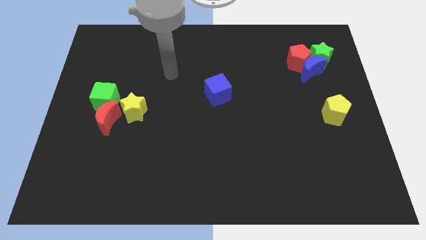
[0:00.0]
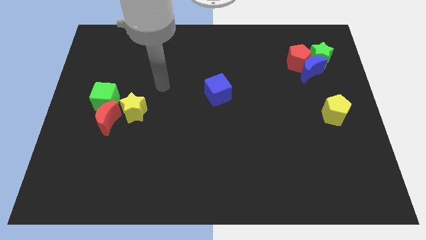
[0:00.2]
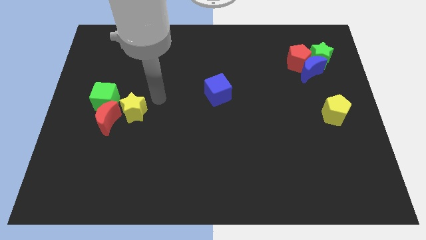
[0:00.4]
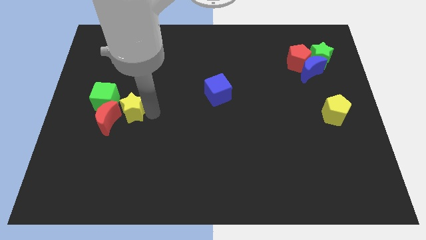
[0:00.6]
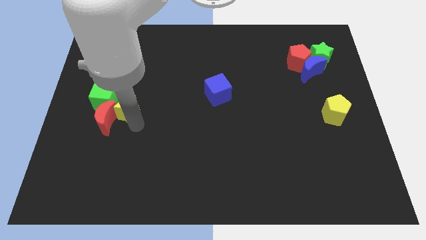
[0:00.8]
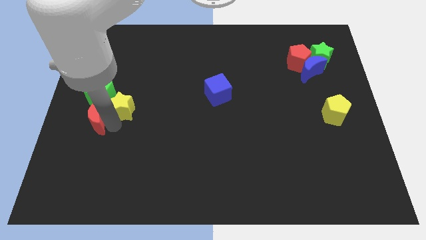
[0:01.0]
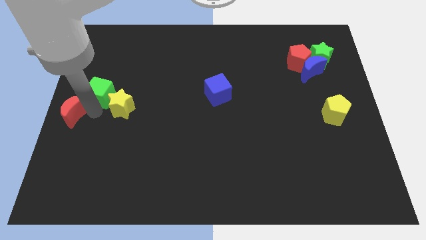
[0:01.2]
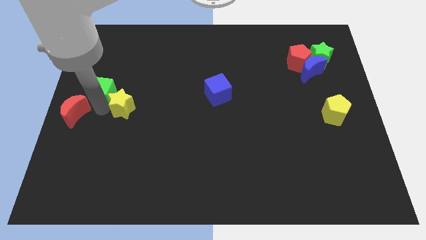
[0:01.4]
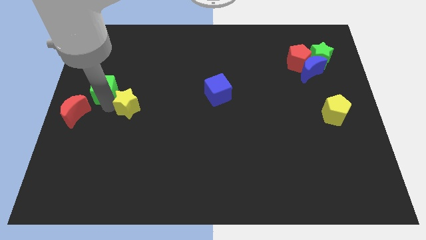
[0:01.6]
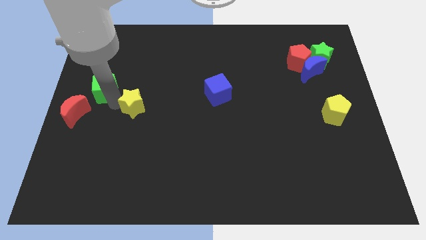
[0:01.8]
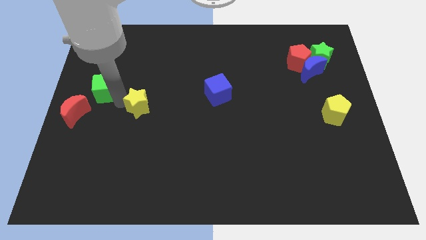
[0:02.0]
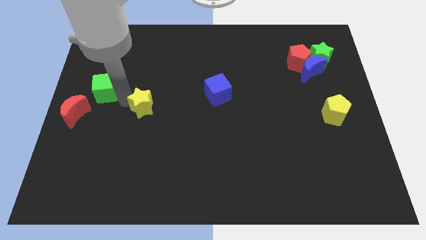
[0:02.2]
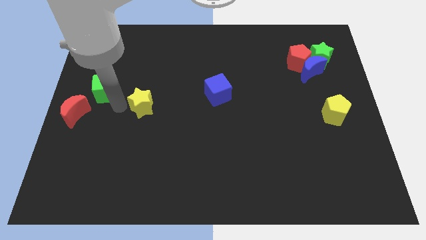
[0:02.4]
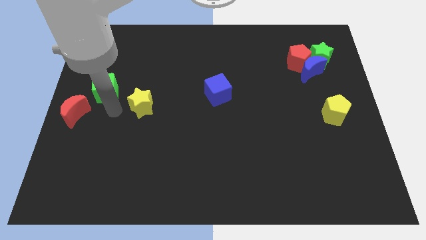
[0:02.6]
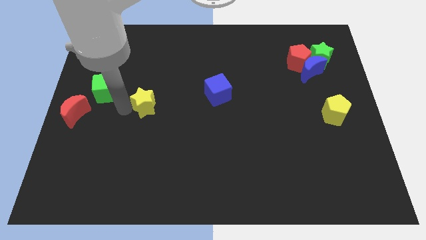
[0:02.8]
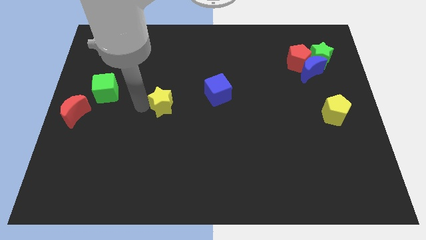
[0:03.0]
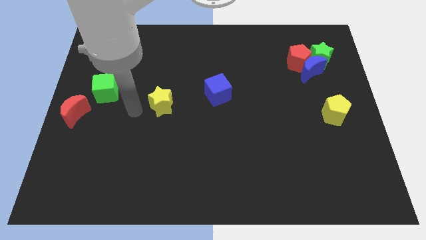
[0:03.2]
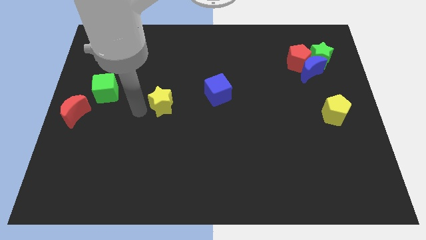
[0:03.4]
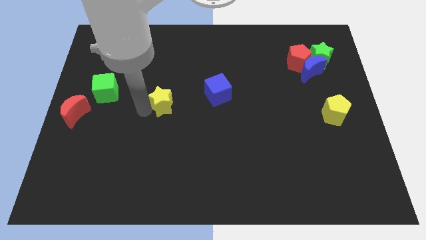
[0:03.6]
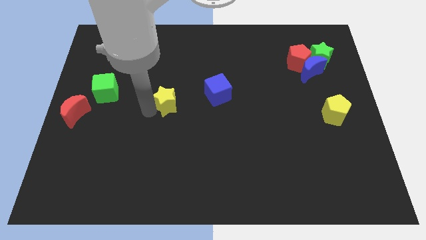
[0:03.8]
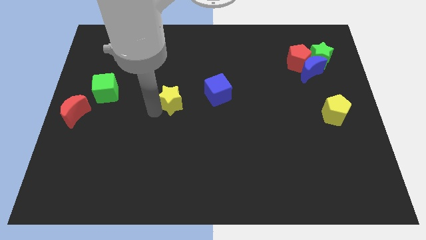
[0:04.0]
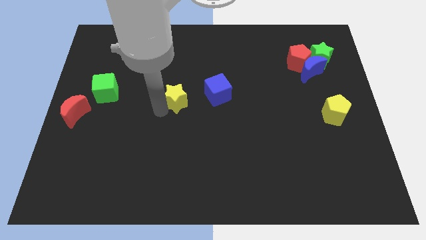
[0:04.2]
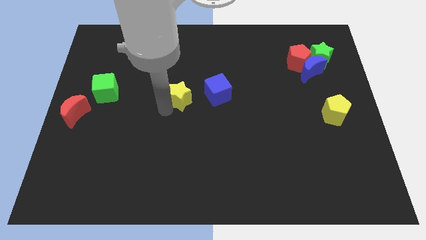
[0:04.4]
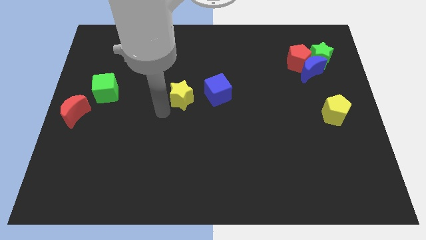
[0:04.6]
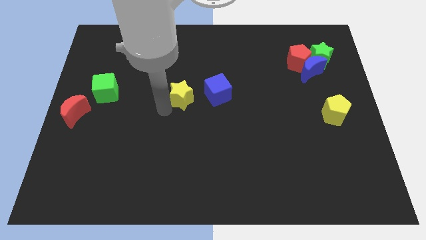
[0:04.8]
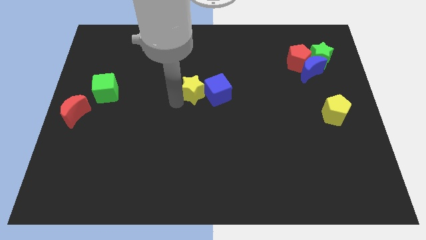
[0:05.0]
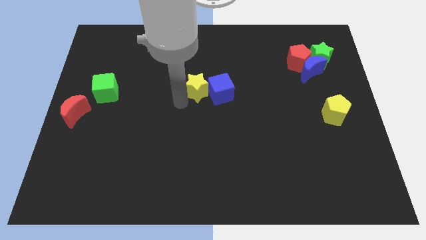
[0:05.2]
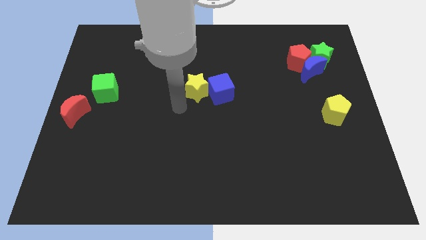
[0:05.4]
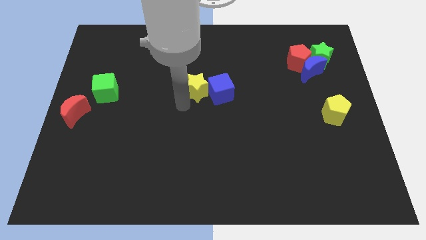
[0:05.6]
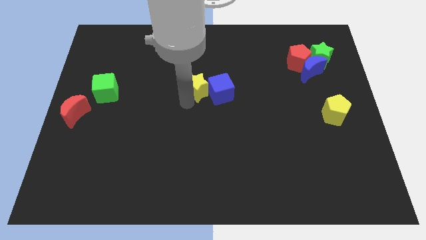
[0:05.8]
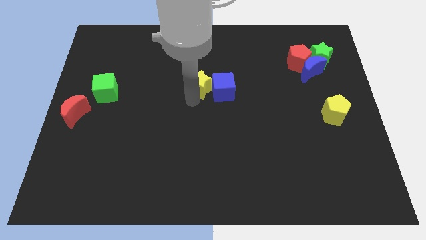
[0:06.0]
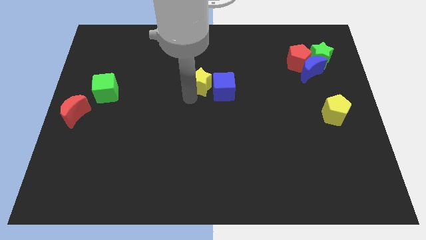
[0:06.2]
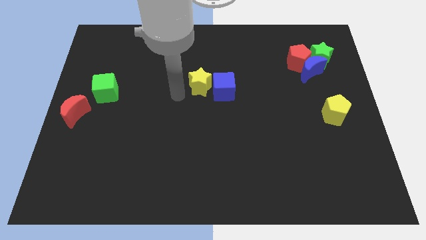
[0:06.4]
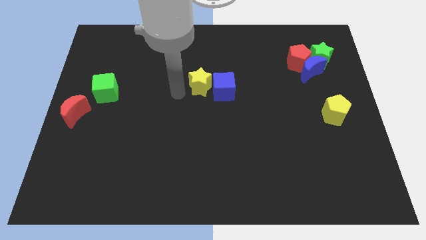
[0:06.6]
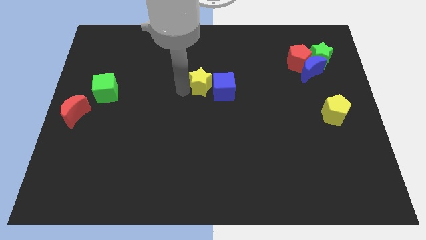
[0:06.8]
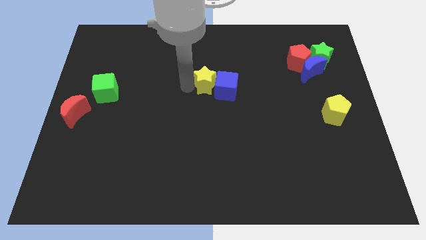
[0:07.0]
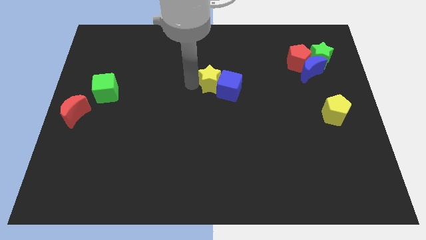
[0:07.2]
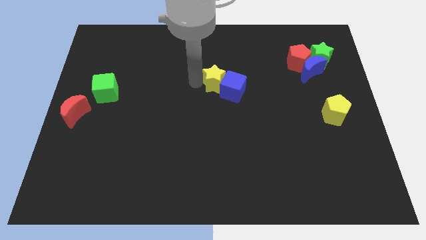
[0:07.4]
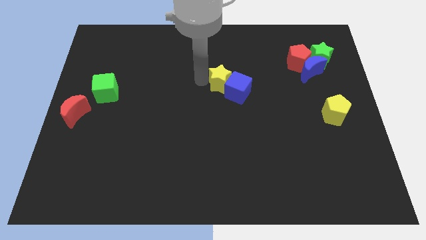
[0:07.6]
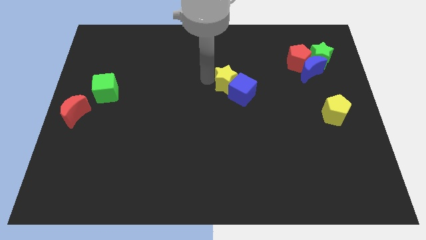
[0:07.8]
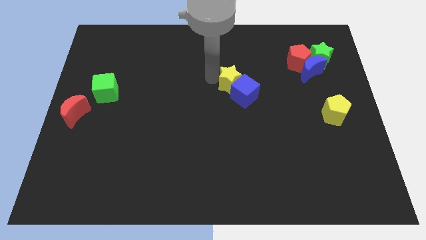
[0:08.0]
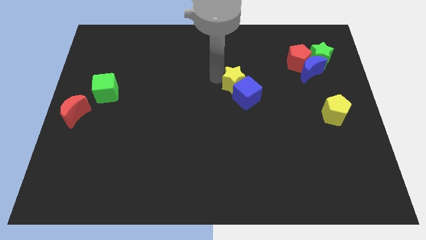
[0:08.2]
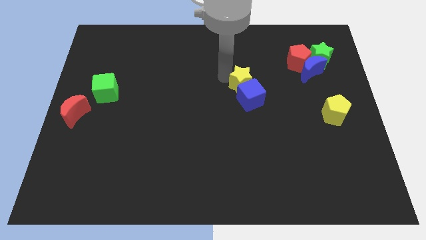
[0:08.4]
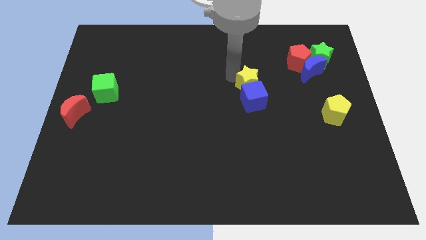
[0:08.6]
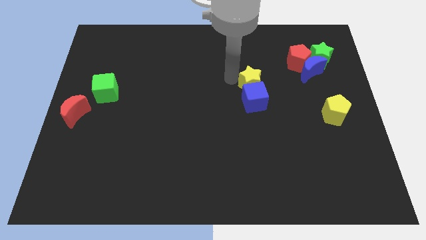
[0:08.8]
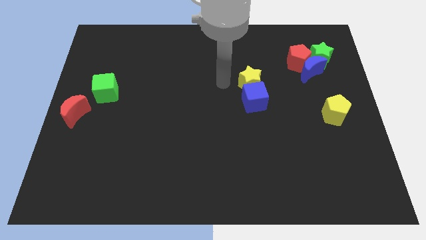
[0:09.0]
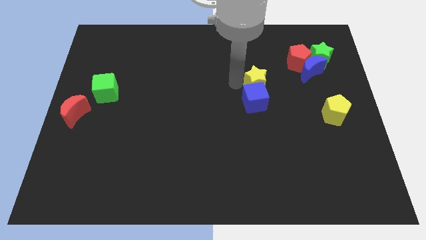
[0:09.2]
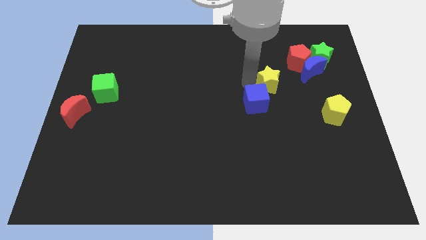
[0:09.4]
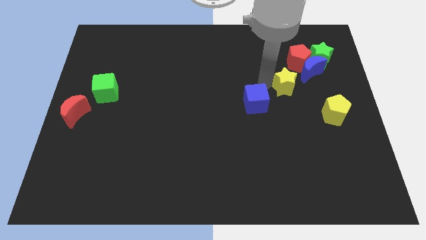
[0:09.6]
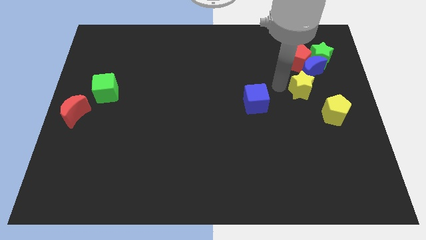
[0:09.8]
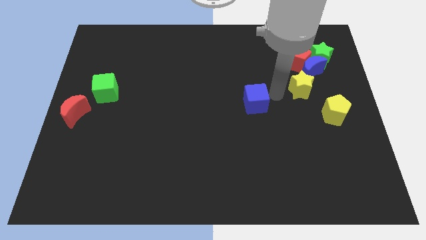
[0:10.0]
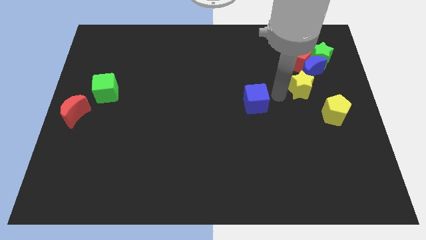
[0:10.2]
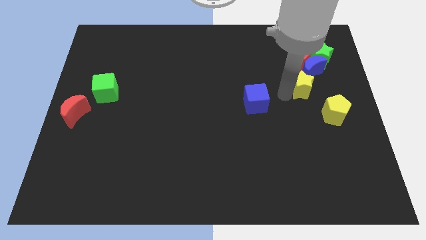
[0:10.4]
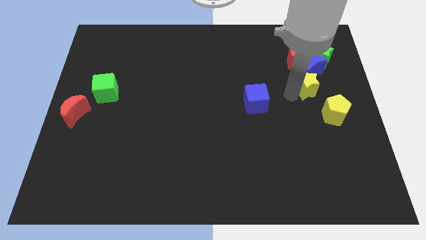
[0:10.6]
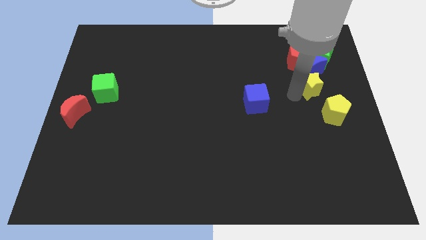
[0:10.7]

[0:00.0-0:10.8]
put the yellow star to the top side of the yellow pentagon

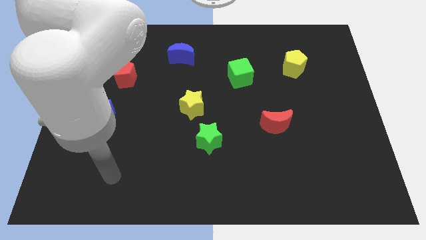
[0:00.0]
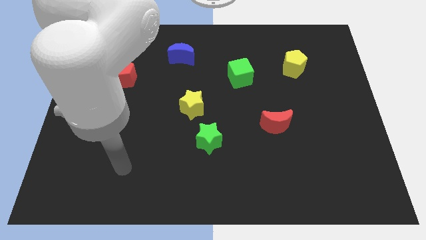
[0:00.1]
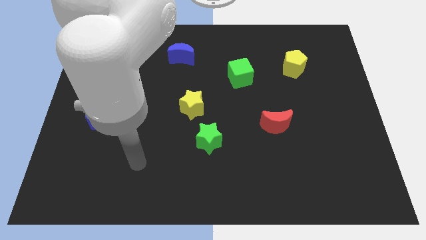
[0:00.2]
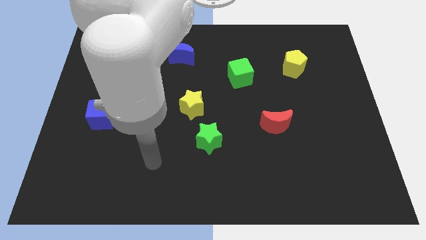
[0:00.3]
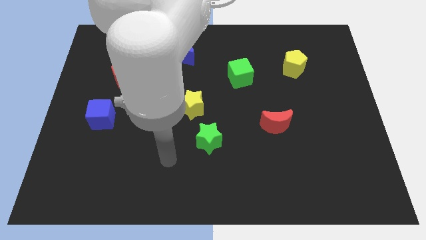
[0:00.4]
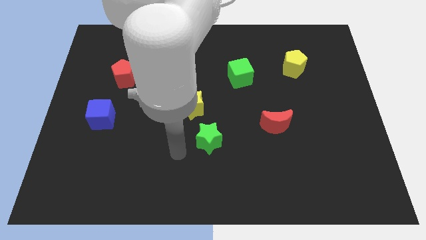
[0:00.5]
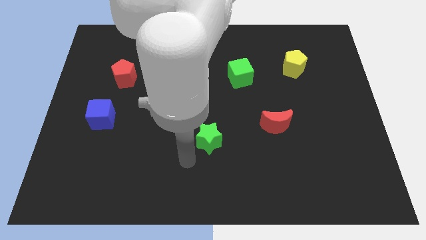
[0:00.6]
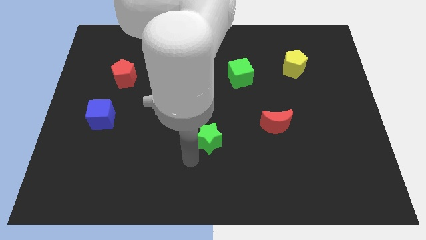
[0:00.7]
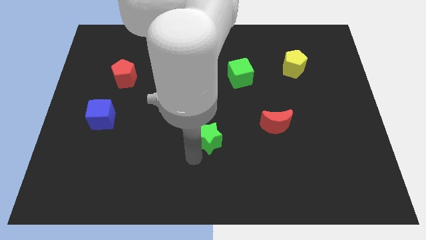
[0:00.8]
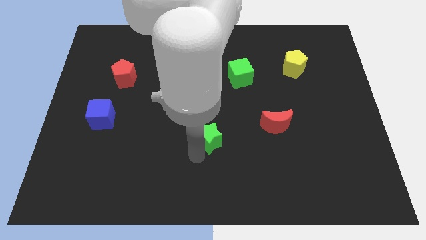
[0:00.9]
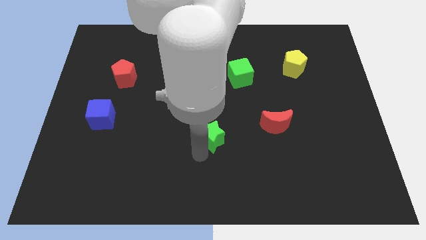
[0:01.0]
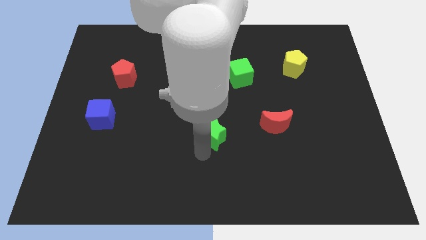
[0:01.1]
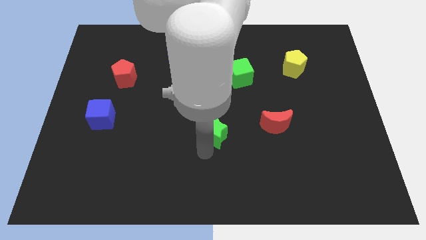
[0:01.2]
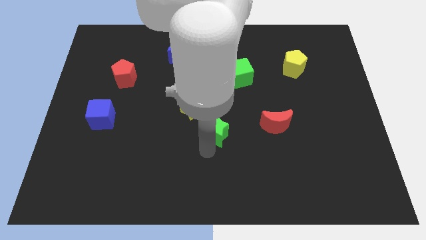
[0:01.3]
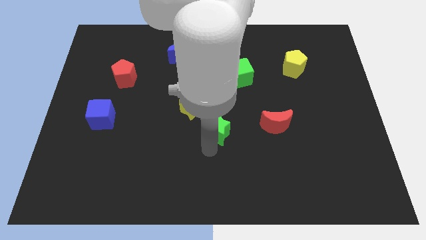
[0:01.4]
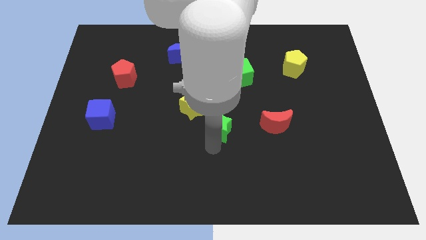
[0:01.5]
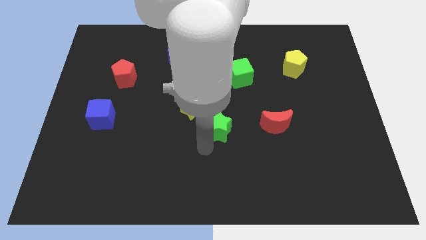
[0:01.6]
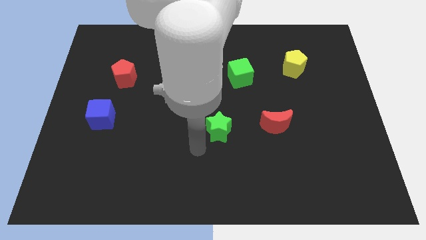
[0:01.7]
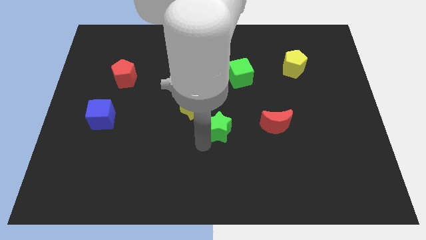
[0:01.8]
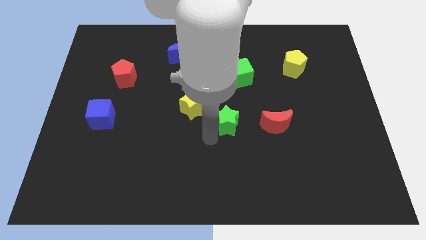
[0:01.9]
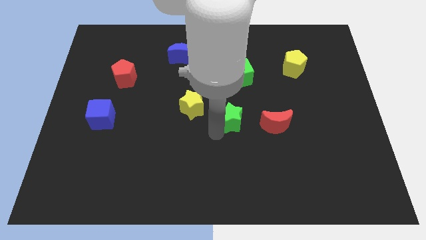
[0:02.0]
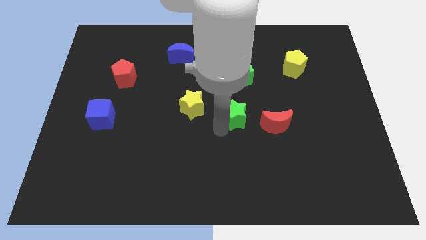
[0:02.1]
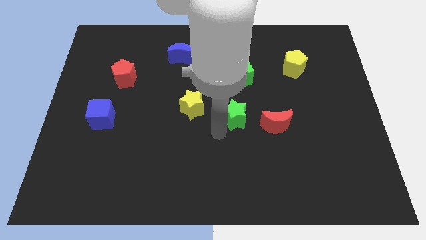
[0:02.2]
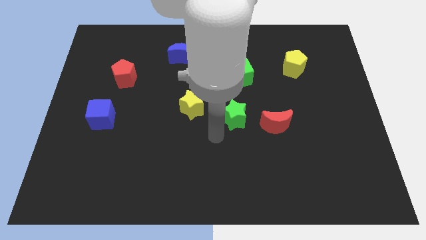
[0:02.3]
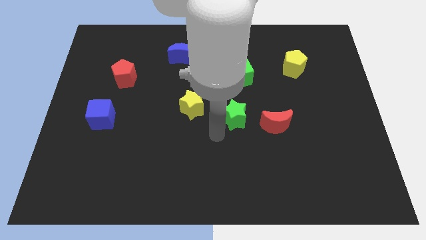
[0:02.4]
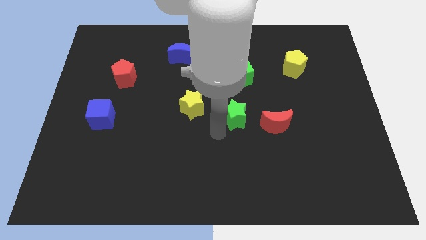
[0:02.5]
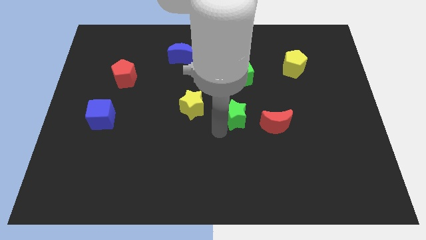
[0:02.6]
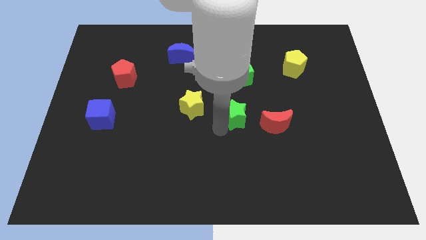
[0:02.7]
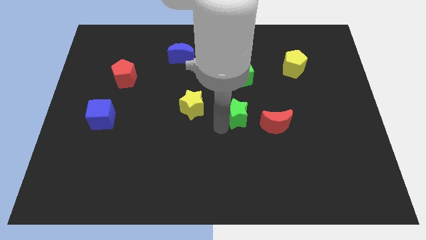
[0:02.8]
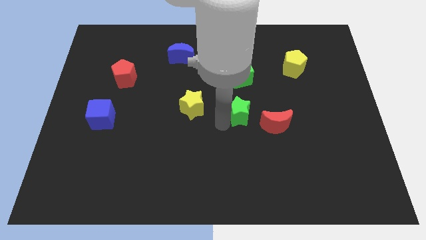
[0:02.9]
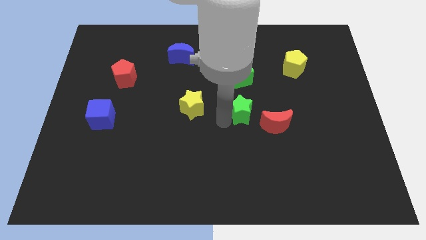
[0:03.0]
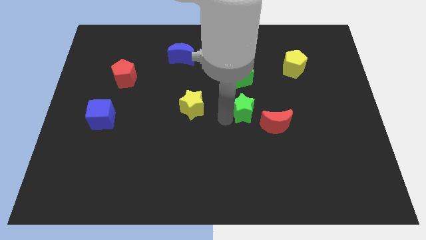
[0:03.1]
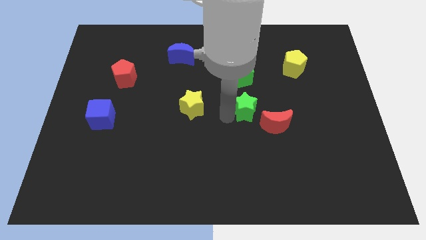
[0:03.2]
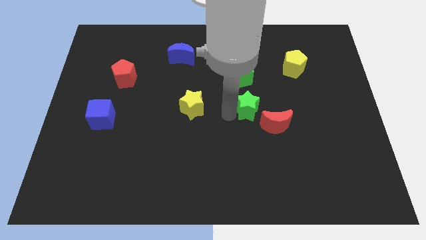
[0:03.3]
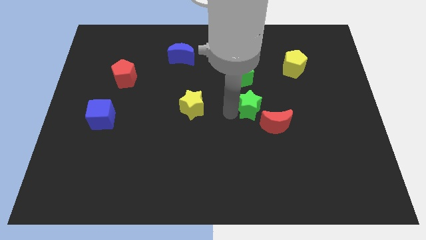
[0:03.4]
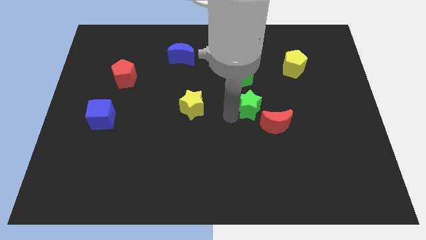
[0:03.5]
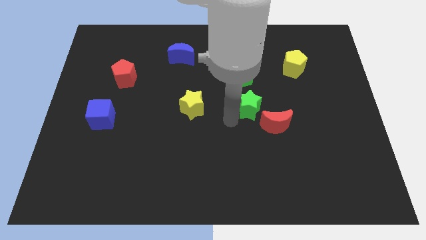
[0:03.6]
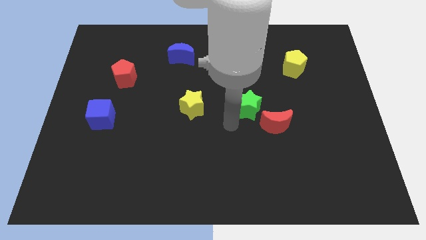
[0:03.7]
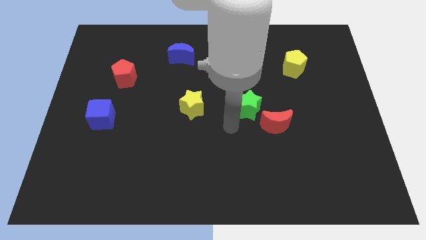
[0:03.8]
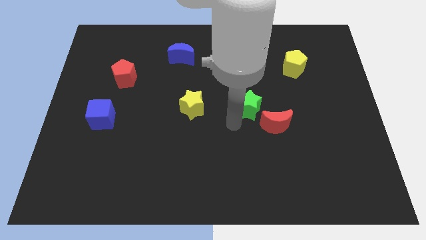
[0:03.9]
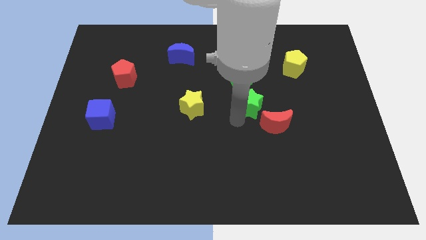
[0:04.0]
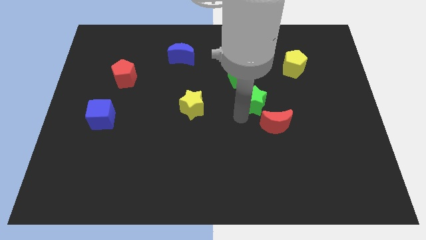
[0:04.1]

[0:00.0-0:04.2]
move the green star to the top side of the red moon
